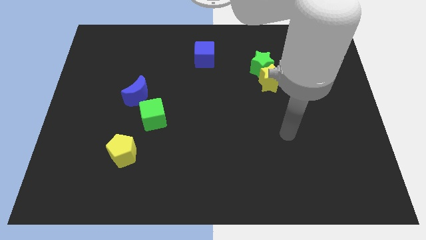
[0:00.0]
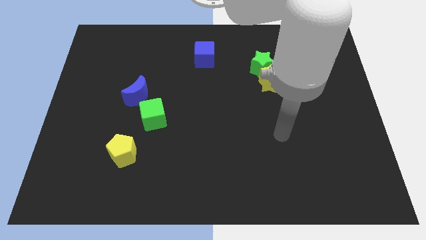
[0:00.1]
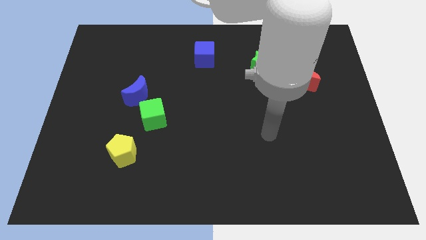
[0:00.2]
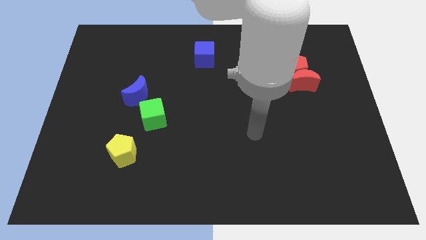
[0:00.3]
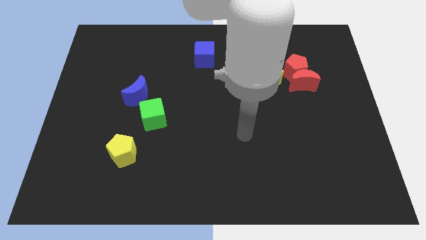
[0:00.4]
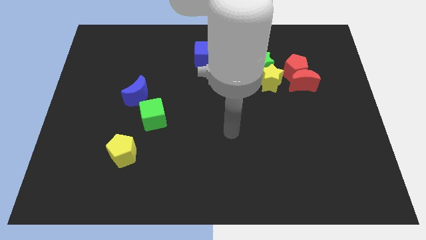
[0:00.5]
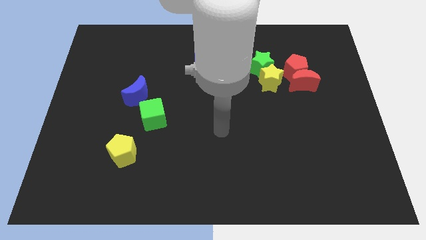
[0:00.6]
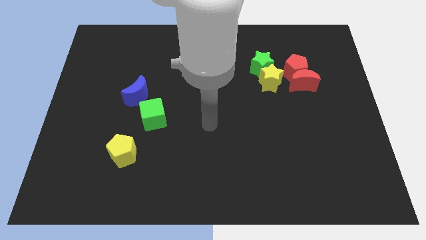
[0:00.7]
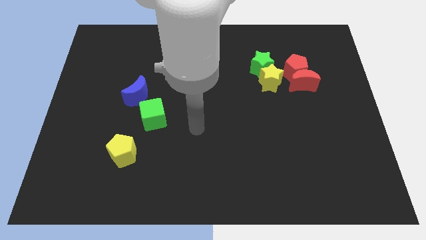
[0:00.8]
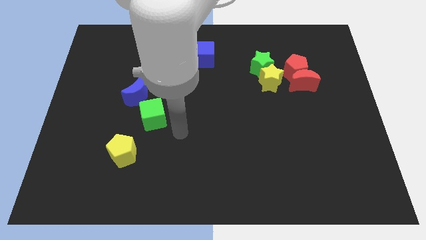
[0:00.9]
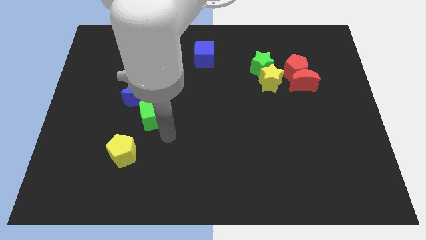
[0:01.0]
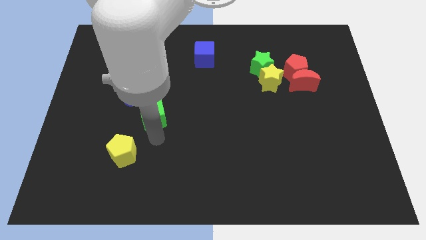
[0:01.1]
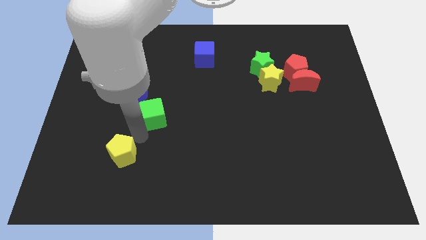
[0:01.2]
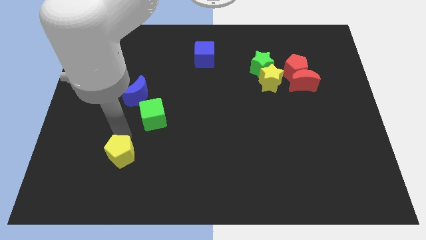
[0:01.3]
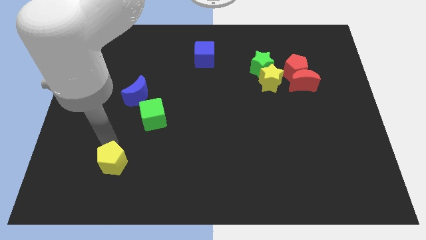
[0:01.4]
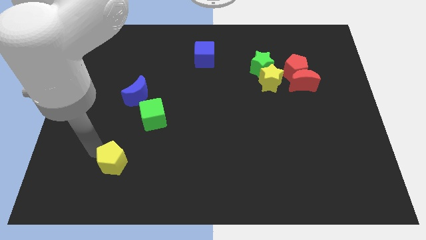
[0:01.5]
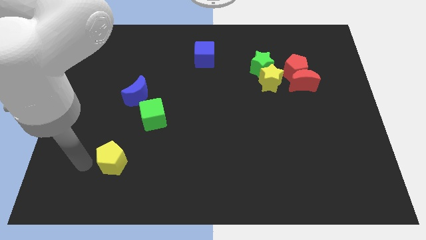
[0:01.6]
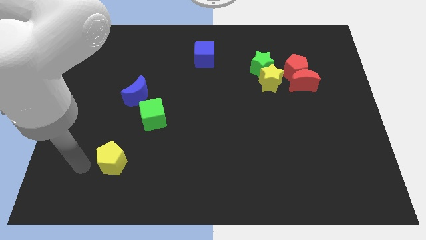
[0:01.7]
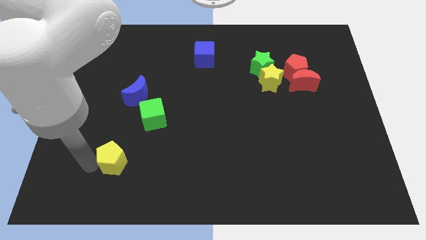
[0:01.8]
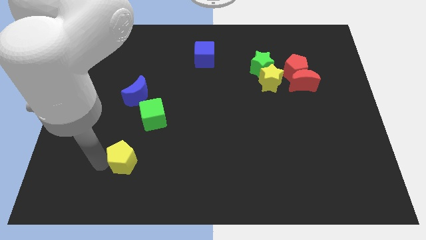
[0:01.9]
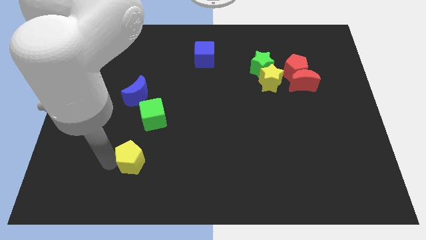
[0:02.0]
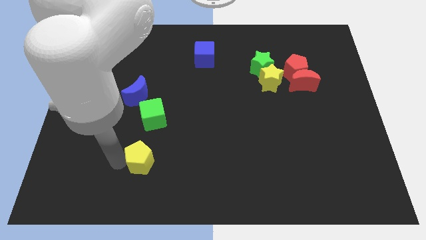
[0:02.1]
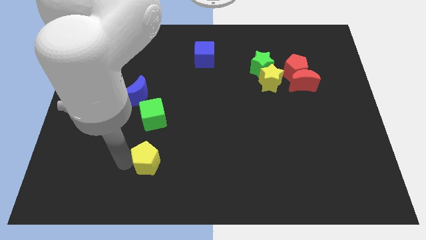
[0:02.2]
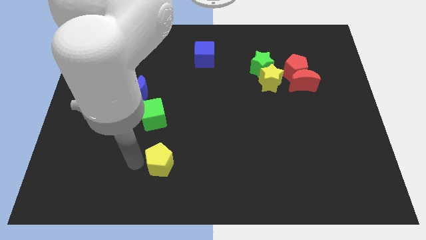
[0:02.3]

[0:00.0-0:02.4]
push the yellow pentagon slightly to the right

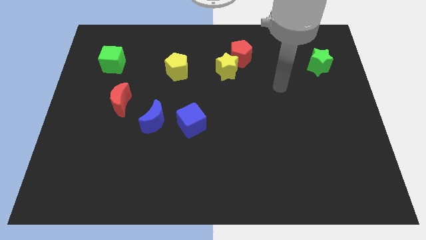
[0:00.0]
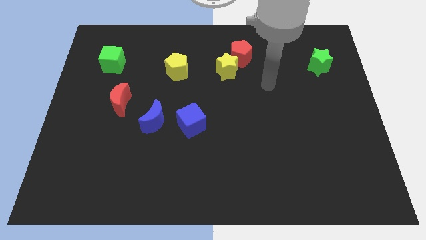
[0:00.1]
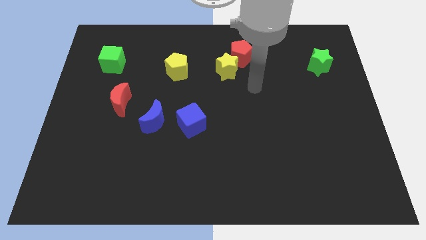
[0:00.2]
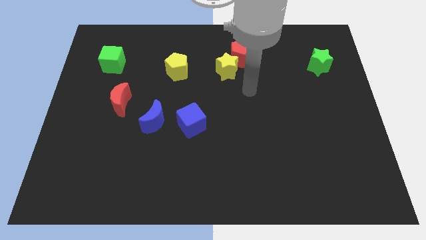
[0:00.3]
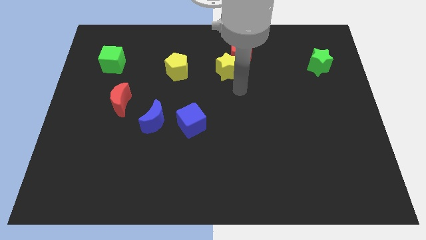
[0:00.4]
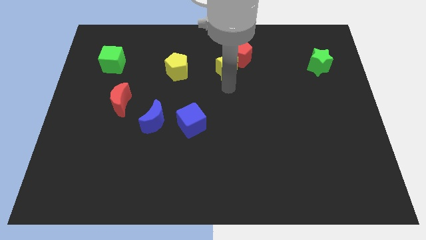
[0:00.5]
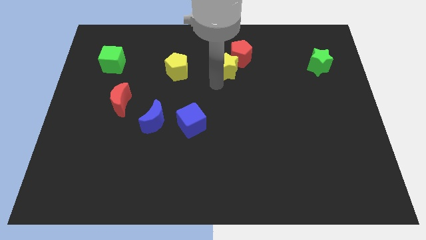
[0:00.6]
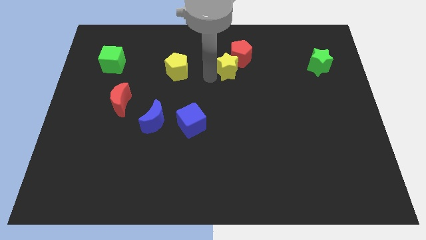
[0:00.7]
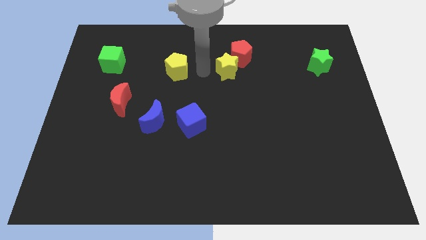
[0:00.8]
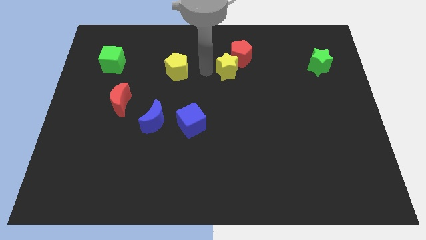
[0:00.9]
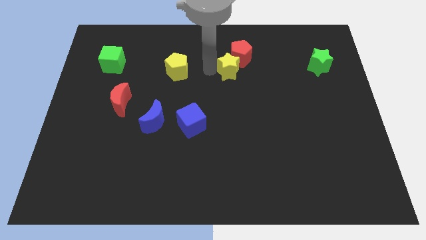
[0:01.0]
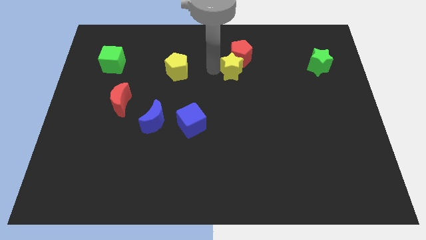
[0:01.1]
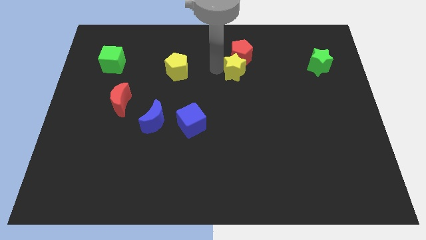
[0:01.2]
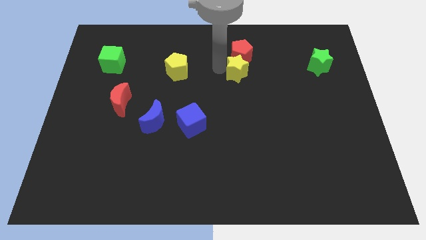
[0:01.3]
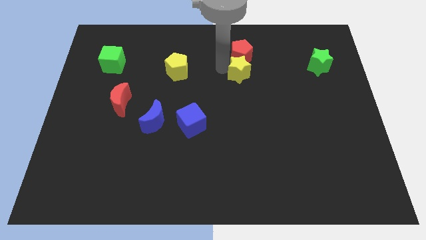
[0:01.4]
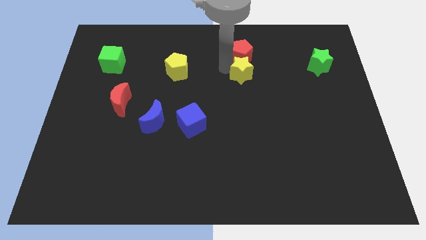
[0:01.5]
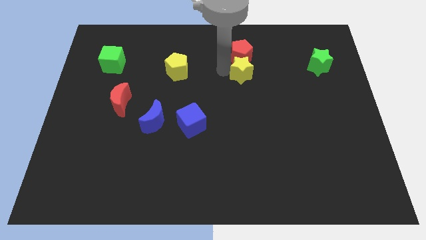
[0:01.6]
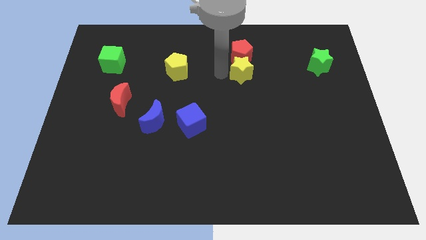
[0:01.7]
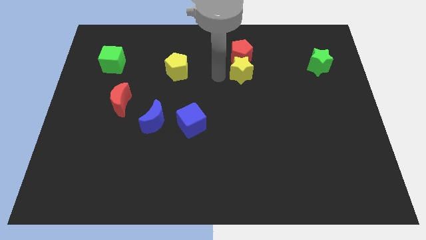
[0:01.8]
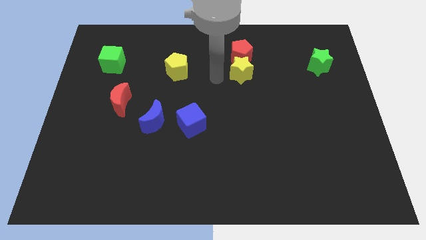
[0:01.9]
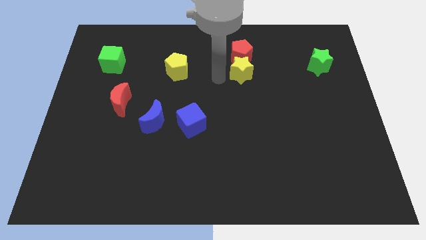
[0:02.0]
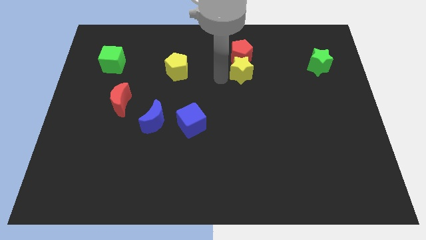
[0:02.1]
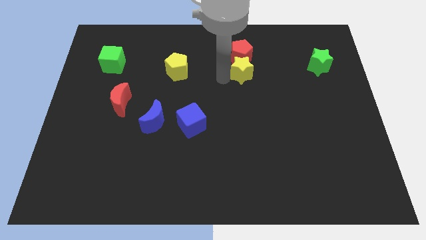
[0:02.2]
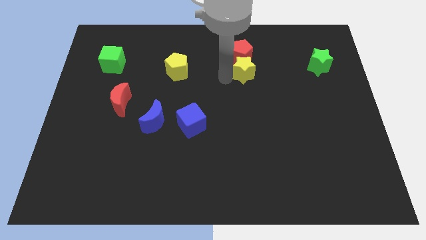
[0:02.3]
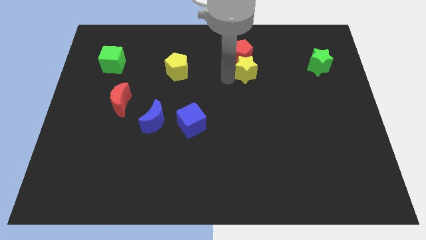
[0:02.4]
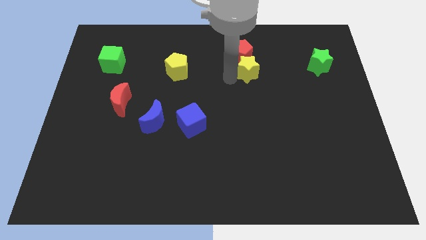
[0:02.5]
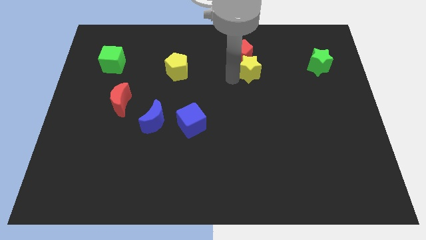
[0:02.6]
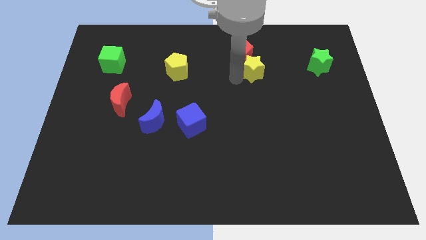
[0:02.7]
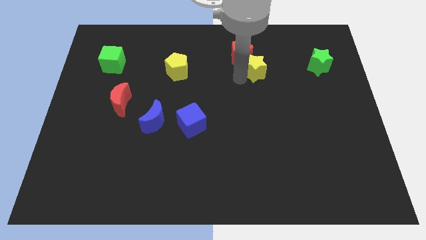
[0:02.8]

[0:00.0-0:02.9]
slightly slide the yellow star to the right

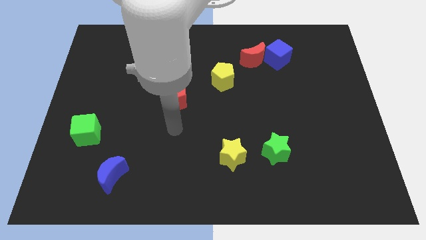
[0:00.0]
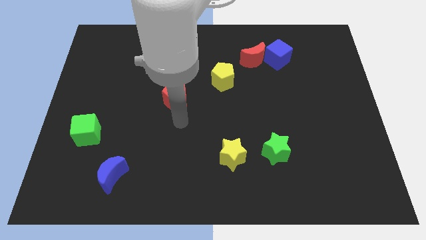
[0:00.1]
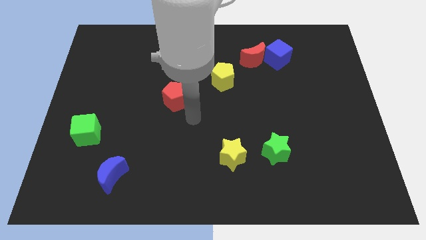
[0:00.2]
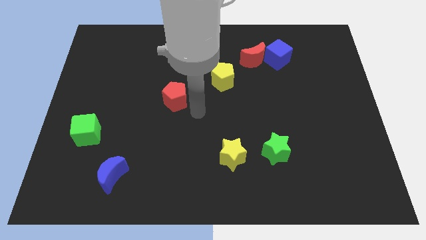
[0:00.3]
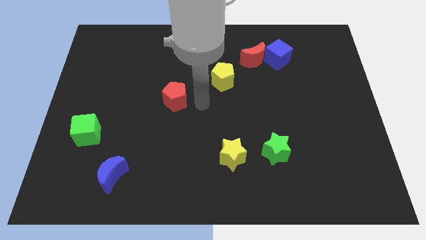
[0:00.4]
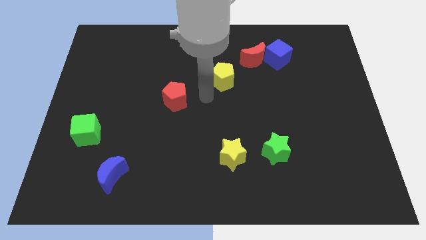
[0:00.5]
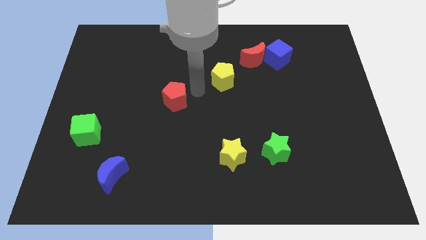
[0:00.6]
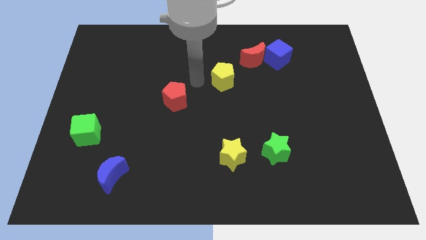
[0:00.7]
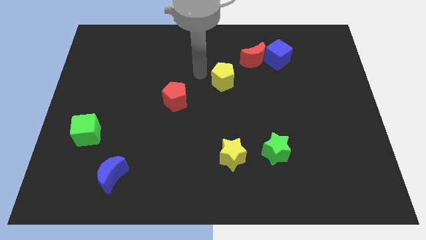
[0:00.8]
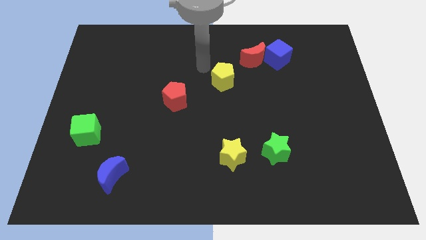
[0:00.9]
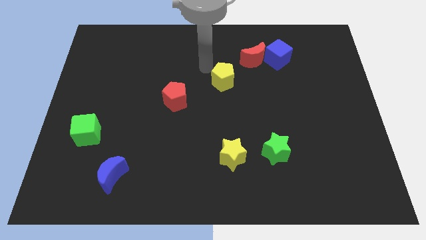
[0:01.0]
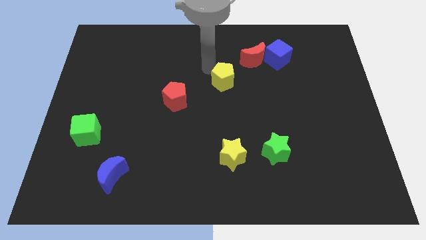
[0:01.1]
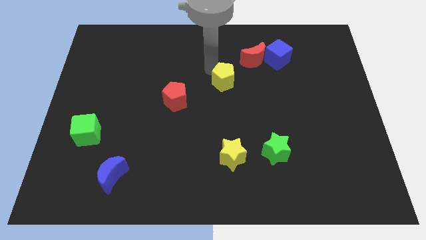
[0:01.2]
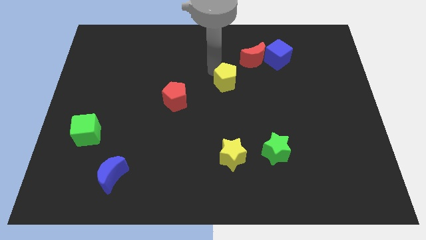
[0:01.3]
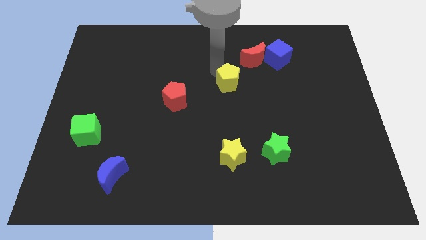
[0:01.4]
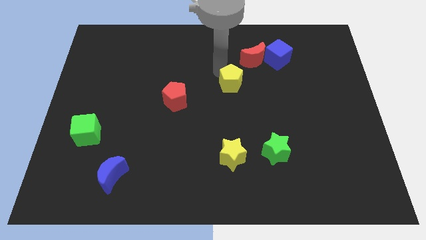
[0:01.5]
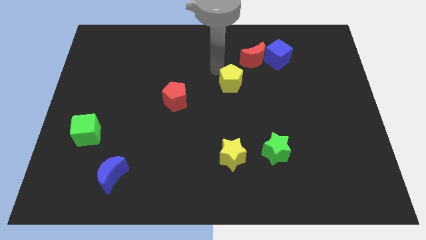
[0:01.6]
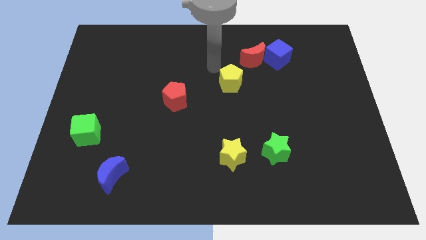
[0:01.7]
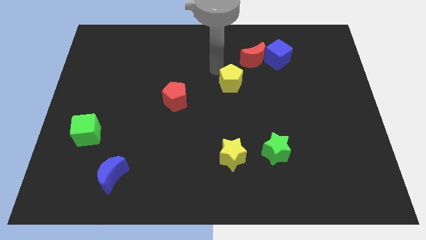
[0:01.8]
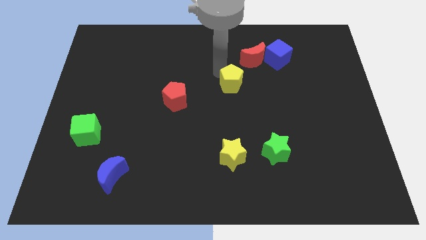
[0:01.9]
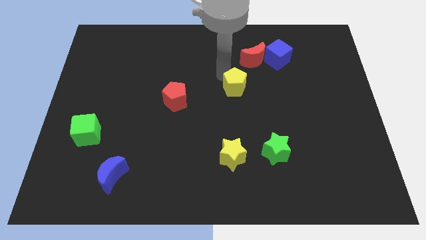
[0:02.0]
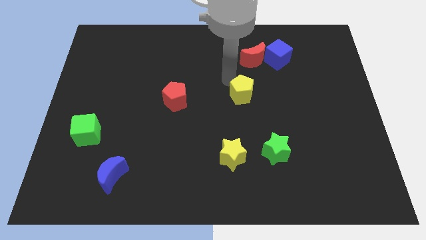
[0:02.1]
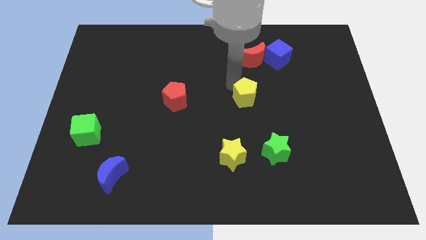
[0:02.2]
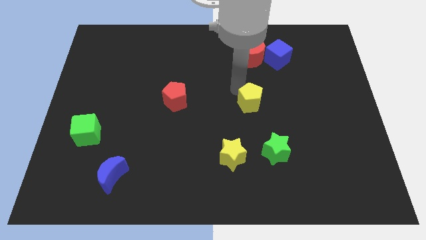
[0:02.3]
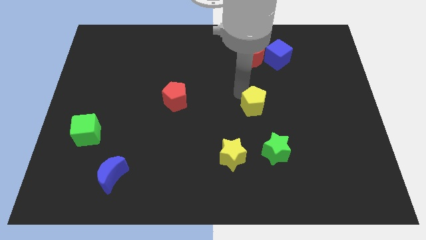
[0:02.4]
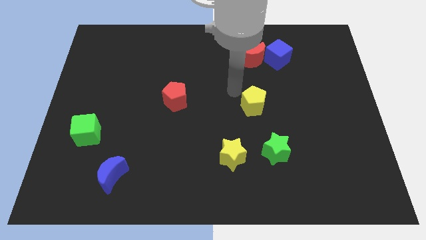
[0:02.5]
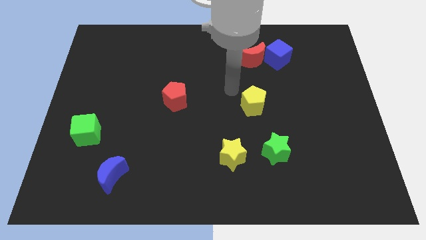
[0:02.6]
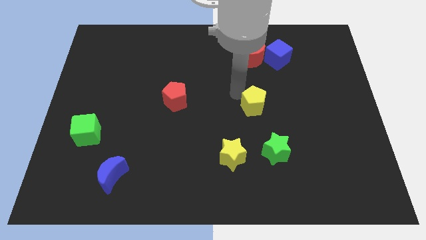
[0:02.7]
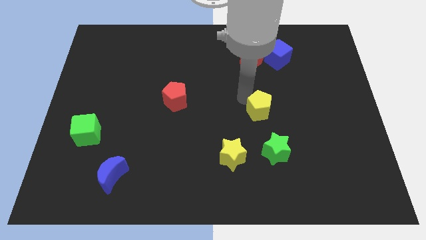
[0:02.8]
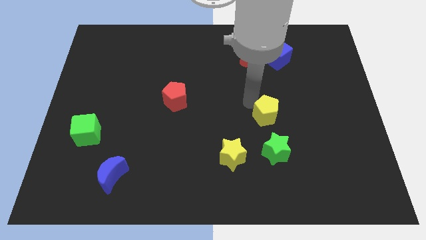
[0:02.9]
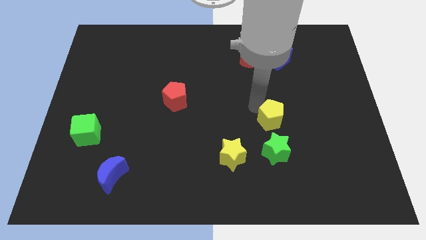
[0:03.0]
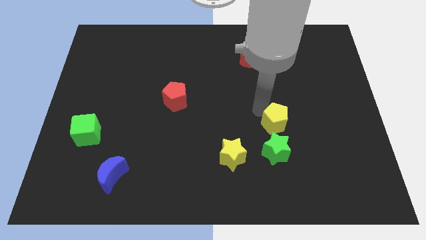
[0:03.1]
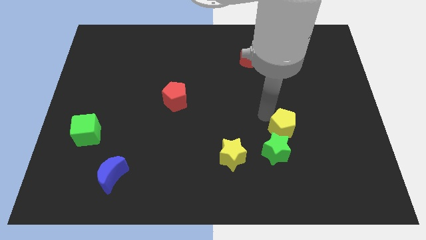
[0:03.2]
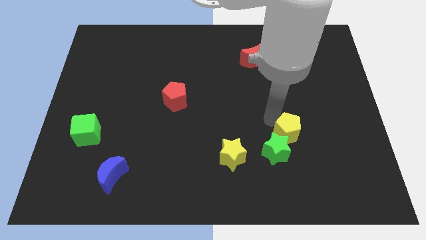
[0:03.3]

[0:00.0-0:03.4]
move the yellow pentagon down and right
